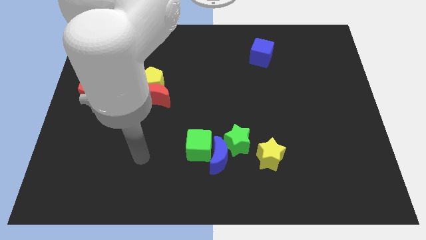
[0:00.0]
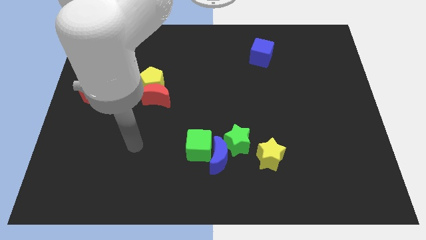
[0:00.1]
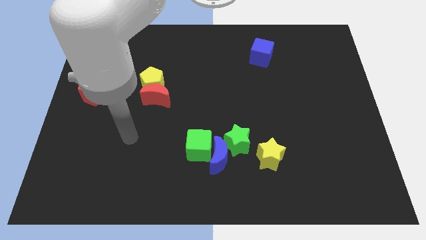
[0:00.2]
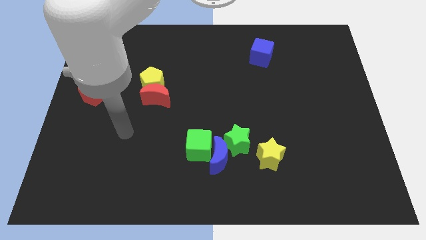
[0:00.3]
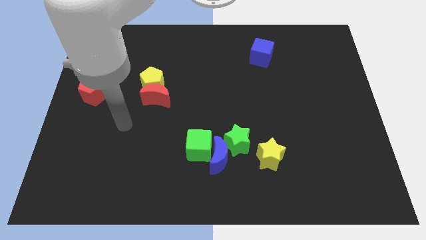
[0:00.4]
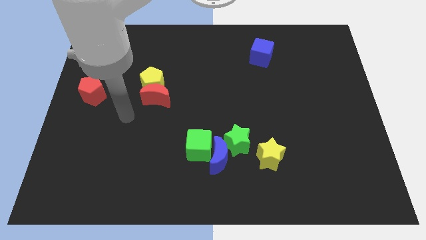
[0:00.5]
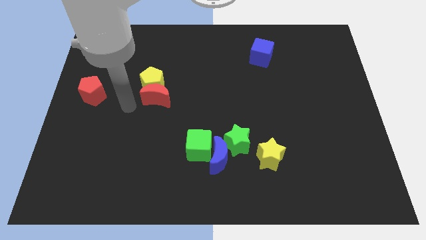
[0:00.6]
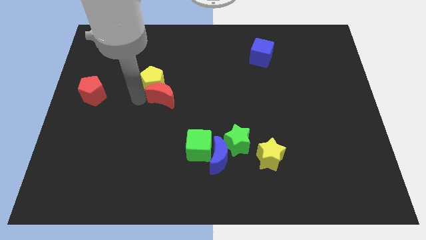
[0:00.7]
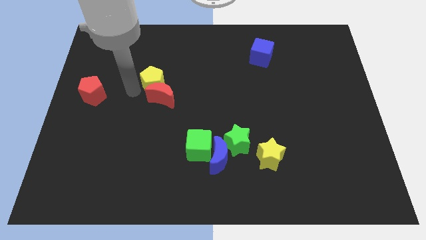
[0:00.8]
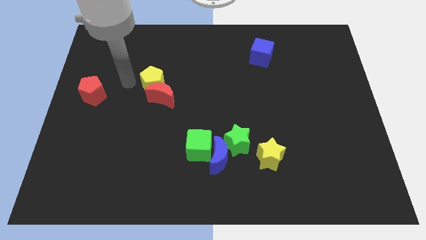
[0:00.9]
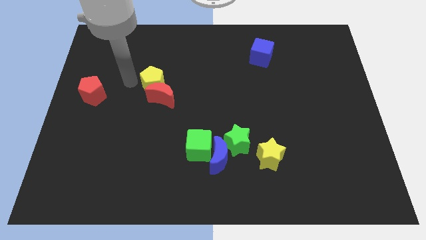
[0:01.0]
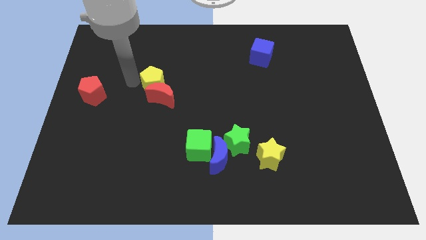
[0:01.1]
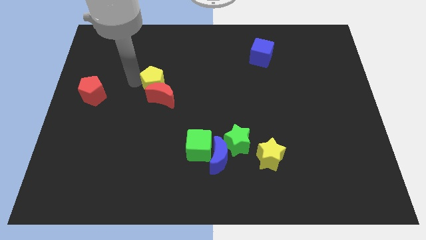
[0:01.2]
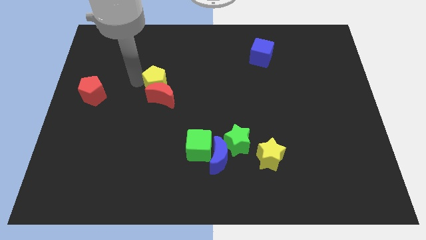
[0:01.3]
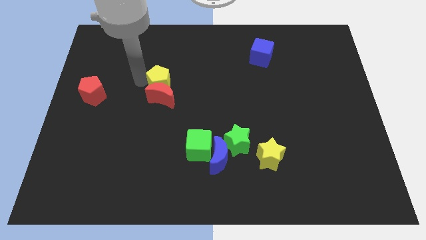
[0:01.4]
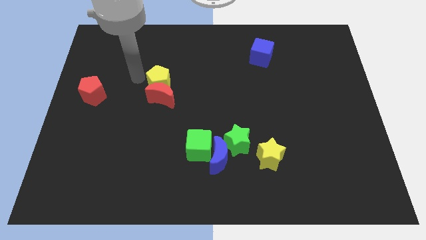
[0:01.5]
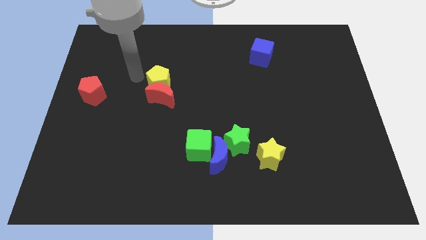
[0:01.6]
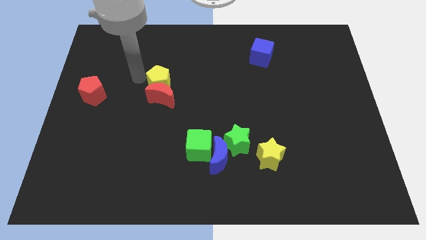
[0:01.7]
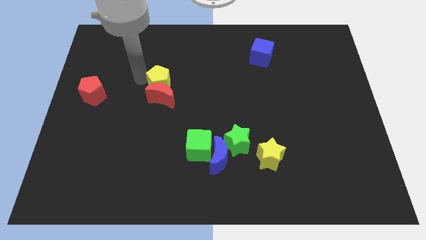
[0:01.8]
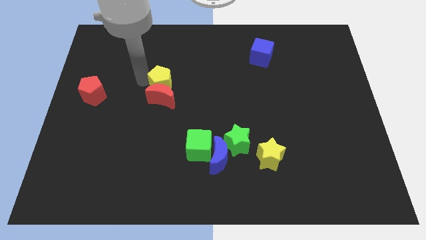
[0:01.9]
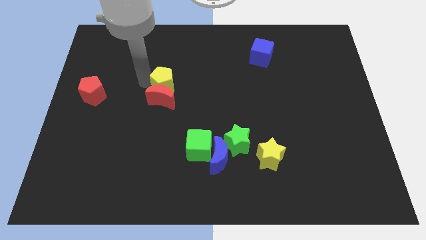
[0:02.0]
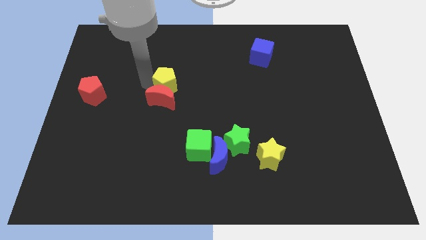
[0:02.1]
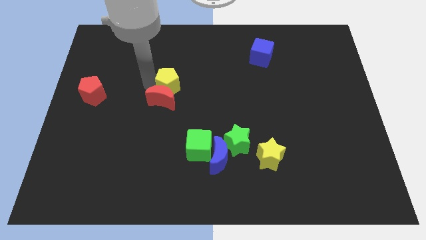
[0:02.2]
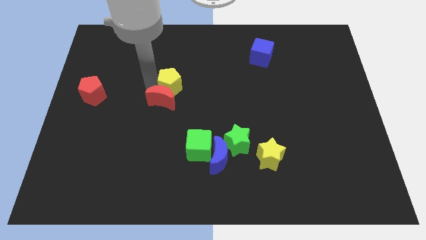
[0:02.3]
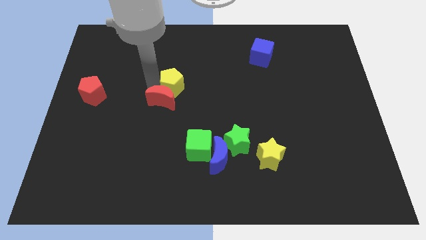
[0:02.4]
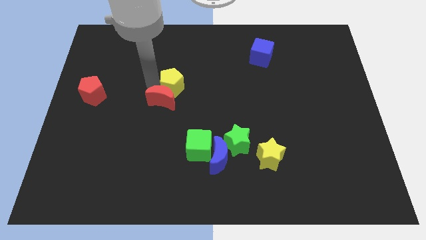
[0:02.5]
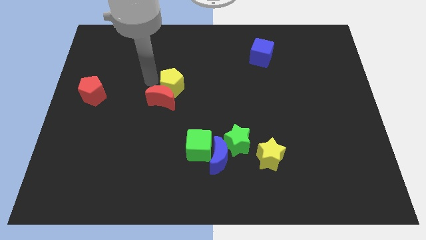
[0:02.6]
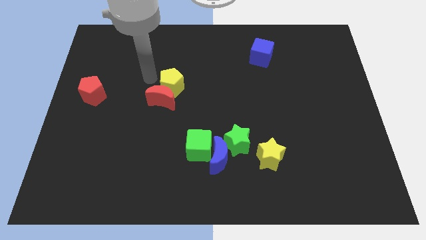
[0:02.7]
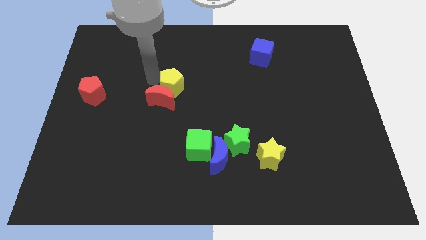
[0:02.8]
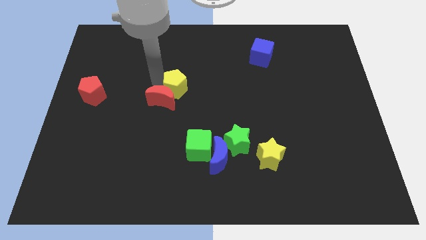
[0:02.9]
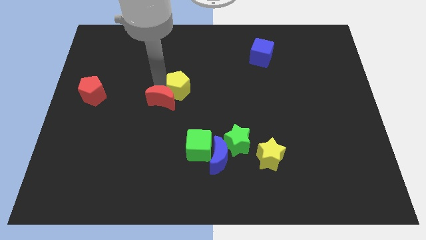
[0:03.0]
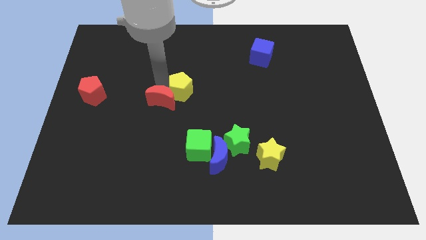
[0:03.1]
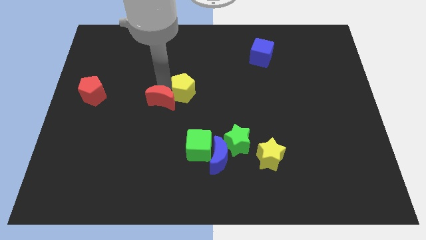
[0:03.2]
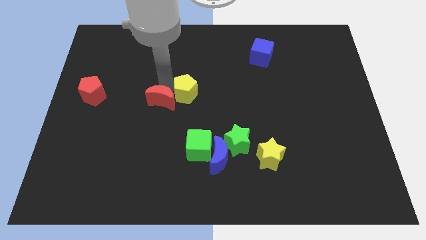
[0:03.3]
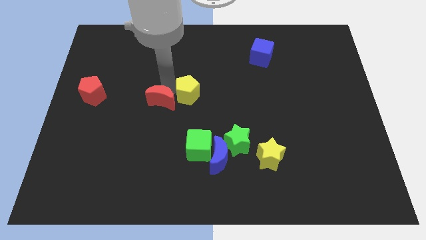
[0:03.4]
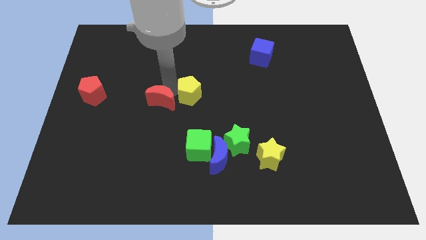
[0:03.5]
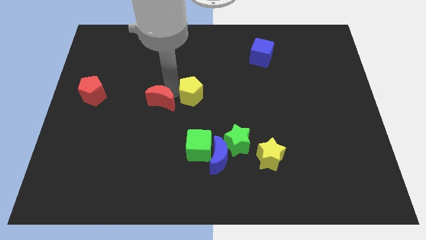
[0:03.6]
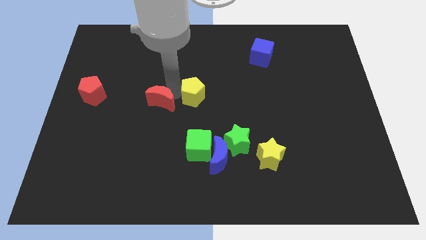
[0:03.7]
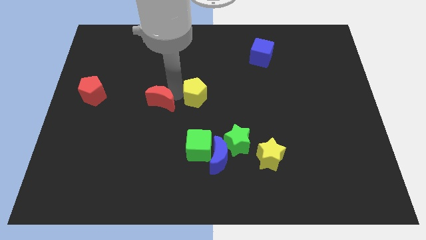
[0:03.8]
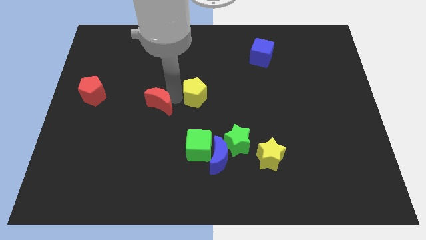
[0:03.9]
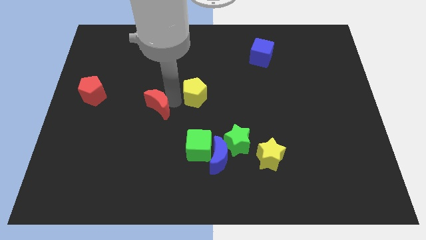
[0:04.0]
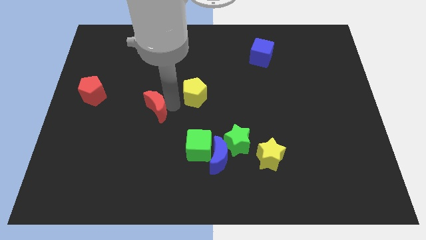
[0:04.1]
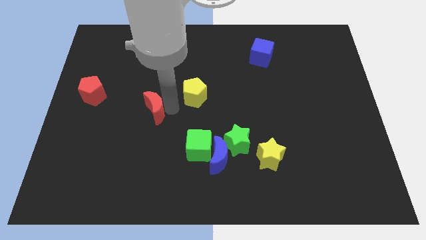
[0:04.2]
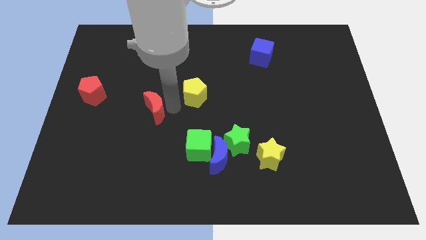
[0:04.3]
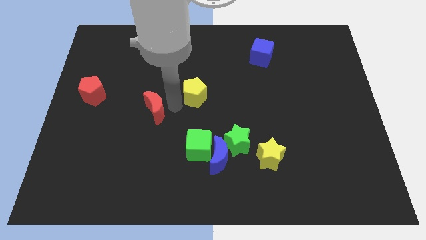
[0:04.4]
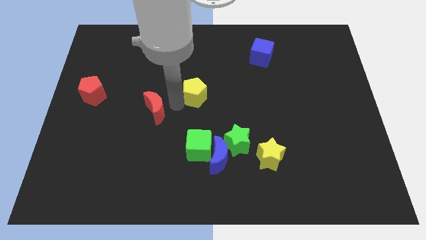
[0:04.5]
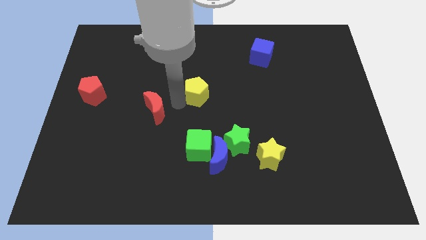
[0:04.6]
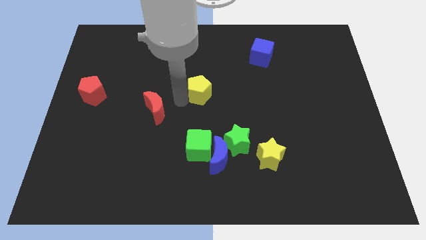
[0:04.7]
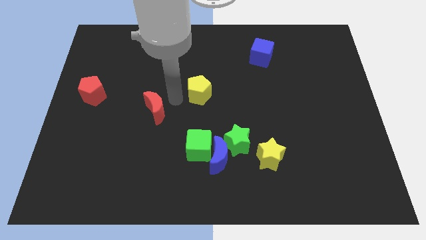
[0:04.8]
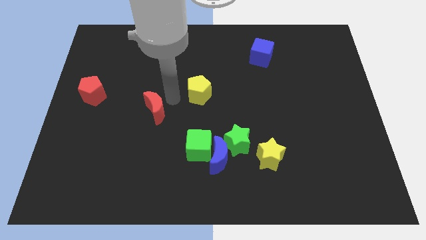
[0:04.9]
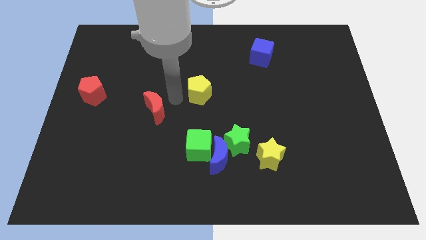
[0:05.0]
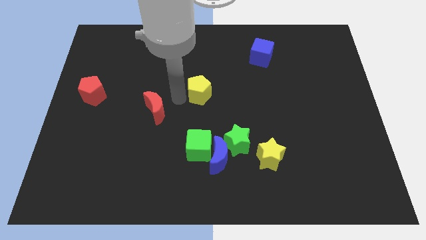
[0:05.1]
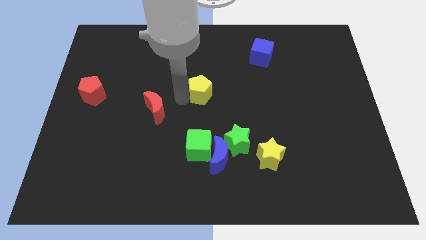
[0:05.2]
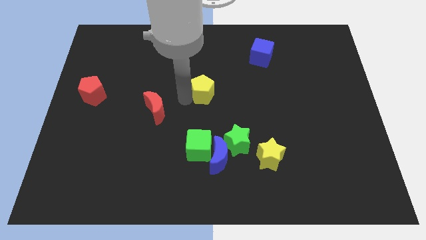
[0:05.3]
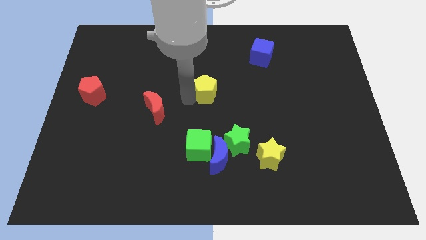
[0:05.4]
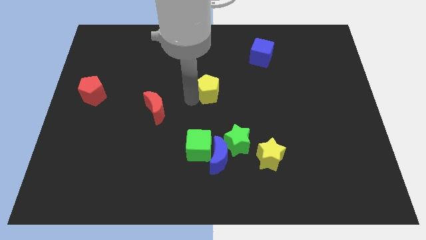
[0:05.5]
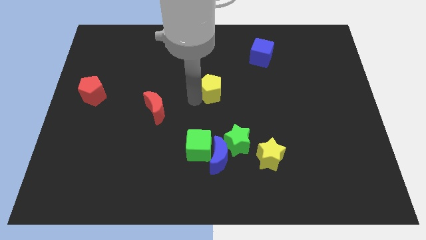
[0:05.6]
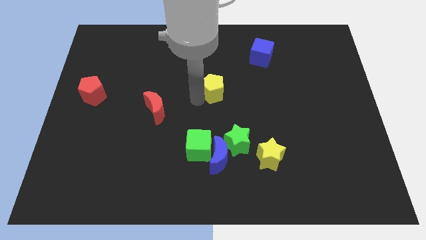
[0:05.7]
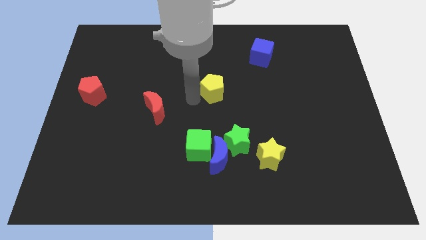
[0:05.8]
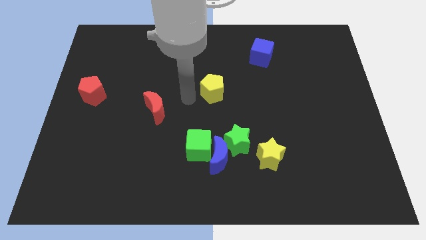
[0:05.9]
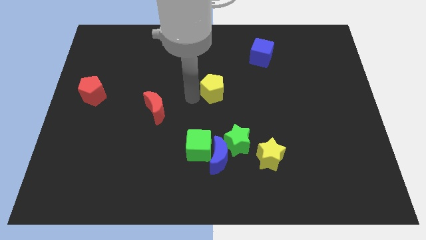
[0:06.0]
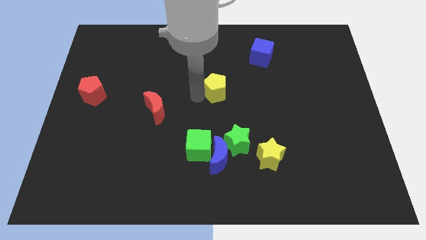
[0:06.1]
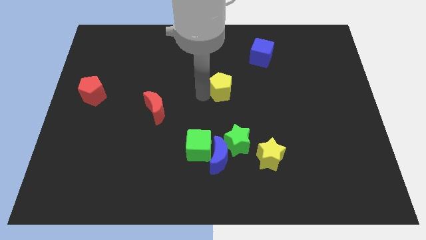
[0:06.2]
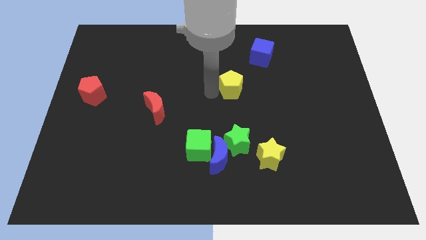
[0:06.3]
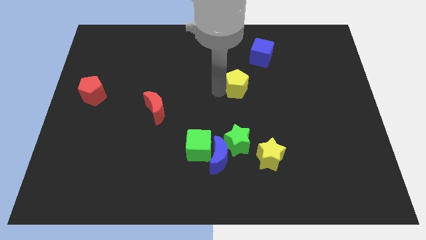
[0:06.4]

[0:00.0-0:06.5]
push the yellow pentagon to the right

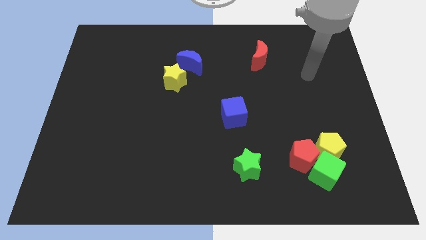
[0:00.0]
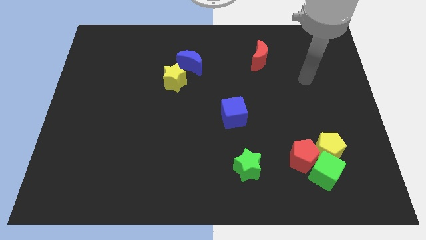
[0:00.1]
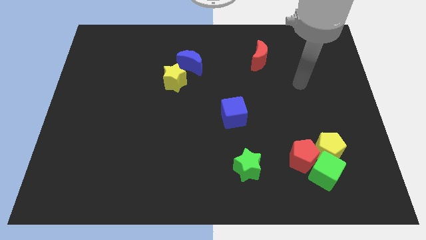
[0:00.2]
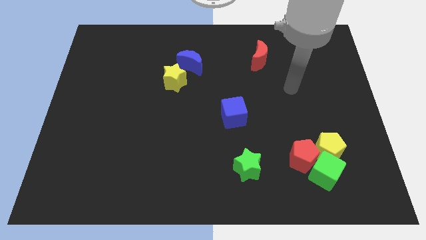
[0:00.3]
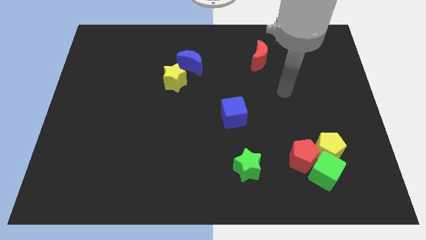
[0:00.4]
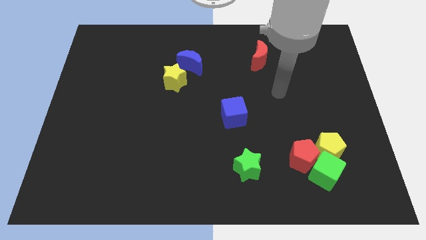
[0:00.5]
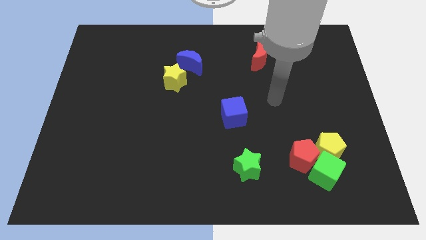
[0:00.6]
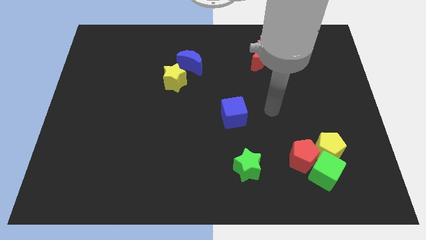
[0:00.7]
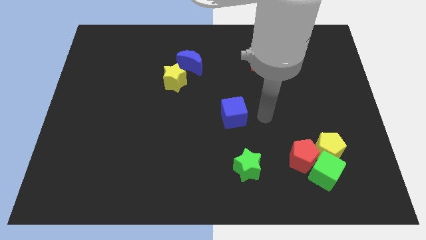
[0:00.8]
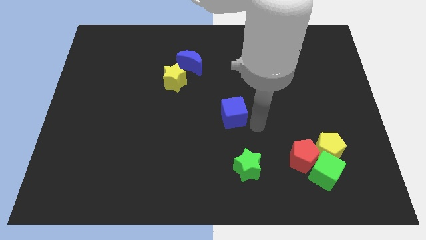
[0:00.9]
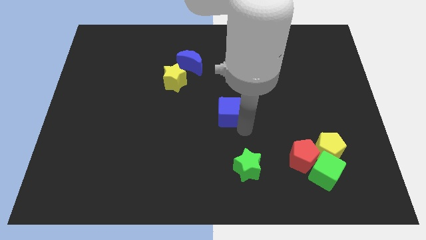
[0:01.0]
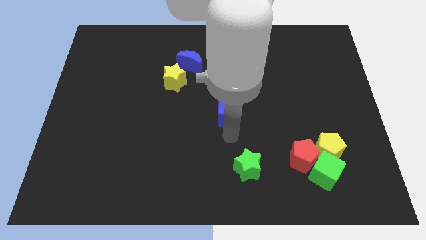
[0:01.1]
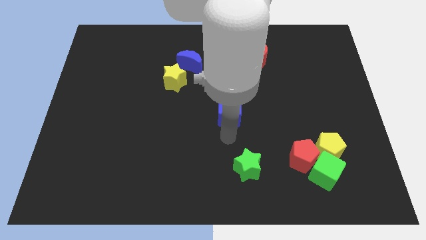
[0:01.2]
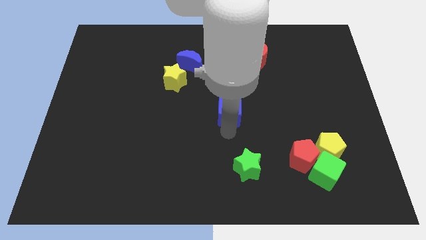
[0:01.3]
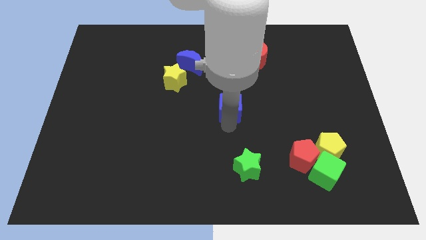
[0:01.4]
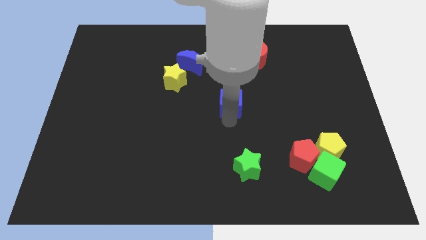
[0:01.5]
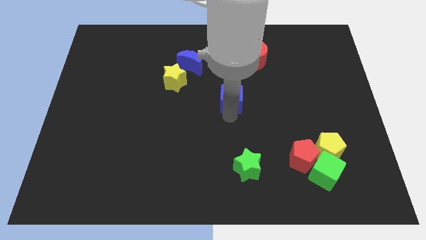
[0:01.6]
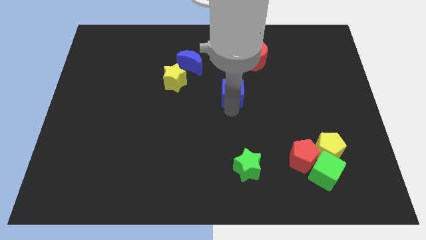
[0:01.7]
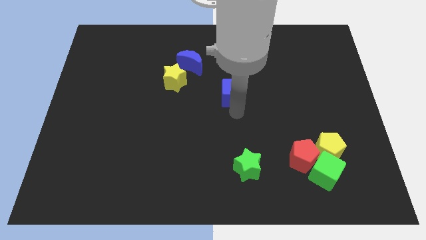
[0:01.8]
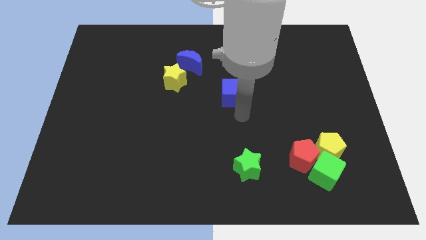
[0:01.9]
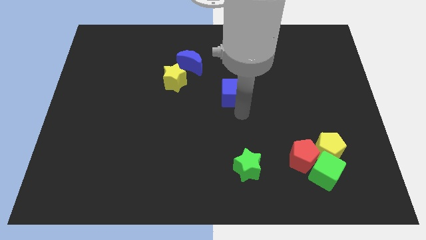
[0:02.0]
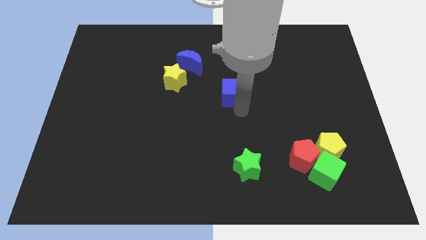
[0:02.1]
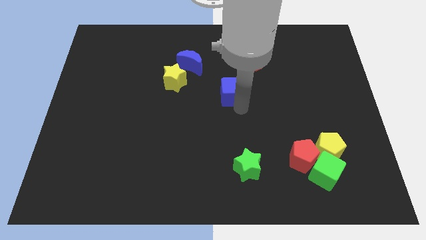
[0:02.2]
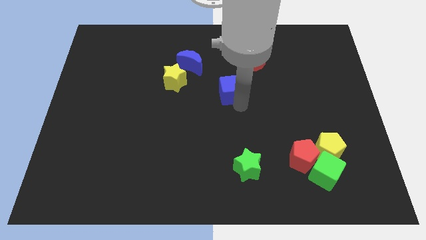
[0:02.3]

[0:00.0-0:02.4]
move the blue cube upwards somewhat
